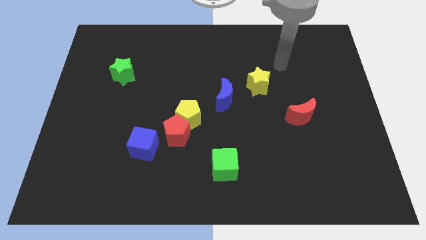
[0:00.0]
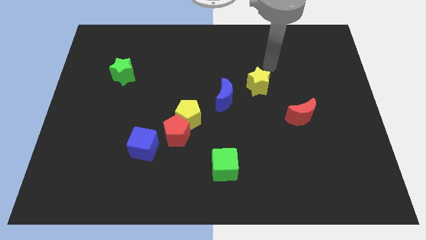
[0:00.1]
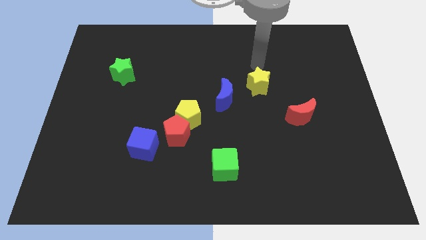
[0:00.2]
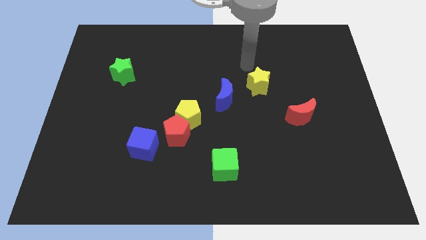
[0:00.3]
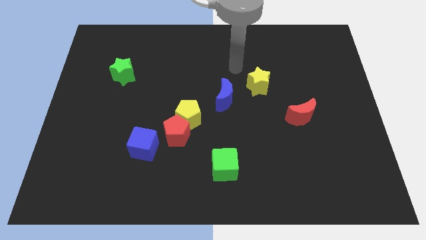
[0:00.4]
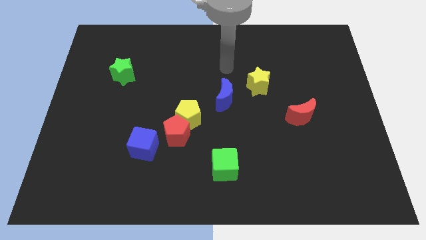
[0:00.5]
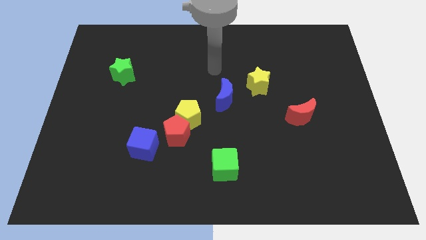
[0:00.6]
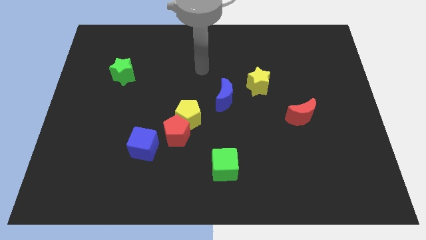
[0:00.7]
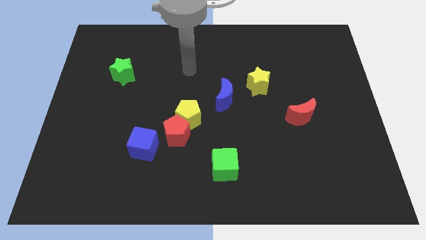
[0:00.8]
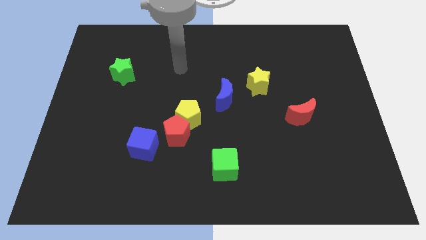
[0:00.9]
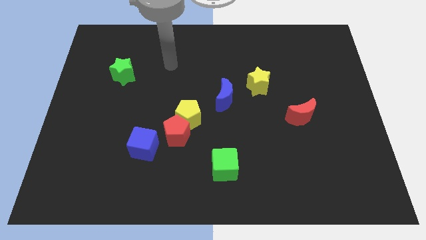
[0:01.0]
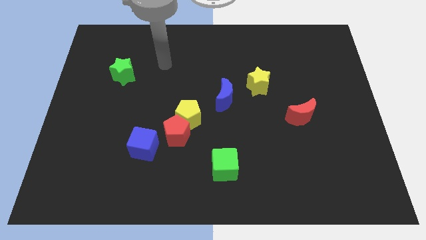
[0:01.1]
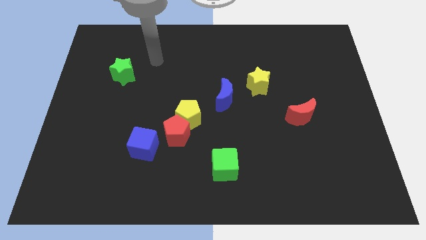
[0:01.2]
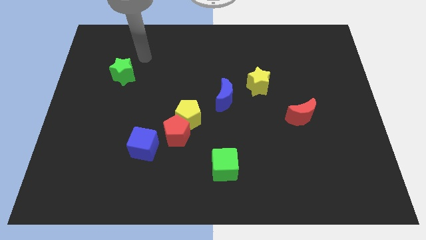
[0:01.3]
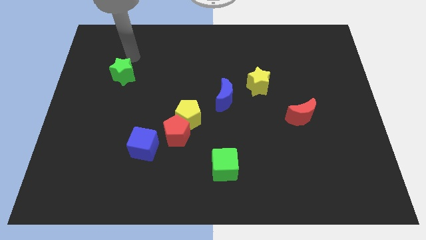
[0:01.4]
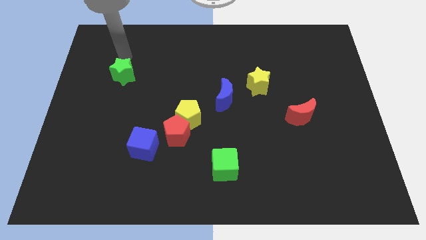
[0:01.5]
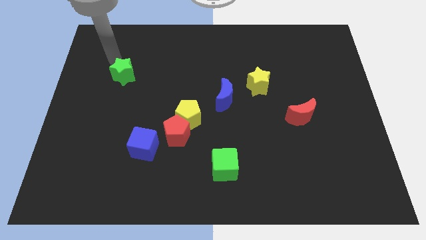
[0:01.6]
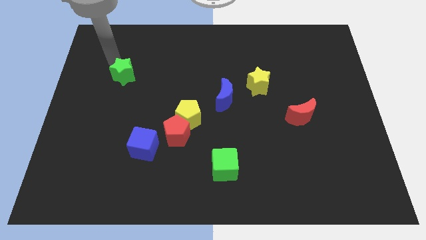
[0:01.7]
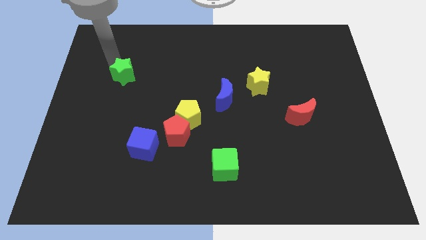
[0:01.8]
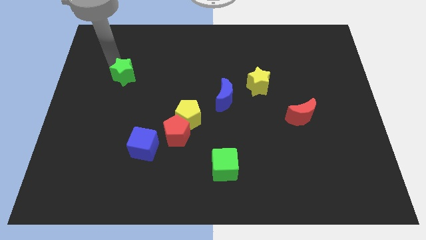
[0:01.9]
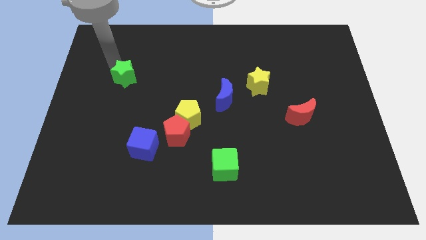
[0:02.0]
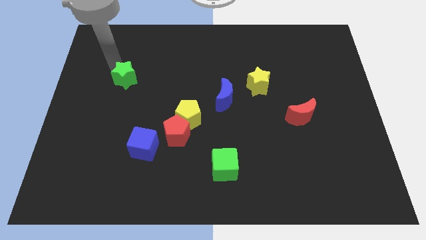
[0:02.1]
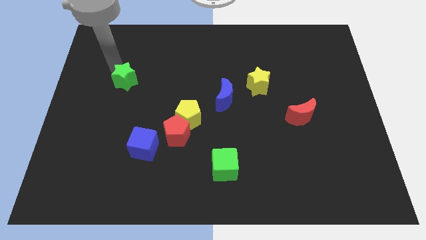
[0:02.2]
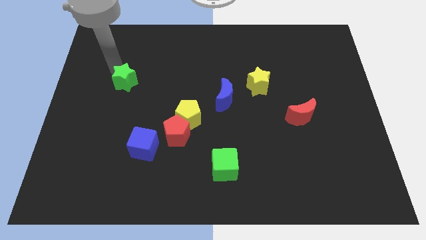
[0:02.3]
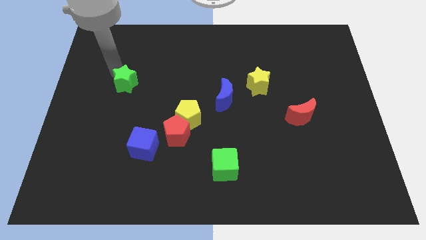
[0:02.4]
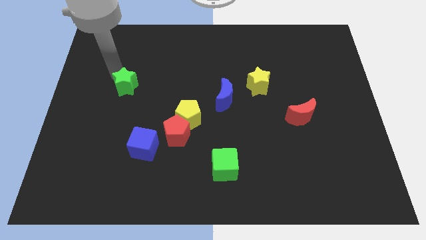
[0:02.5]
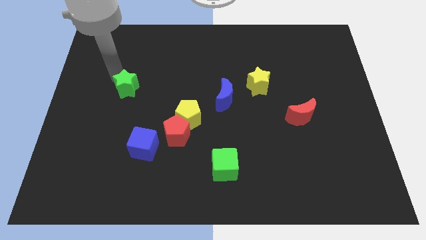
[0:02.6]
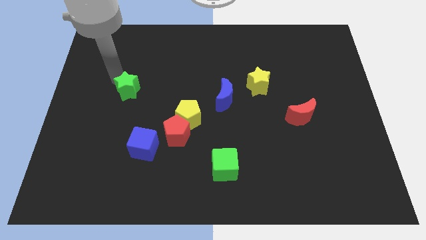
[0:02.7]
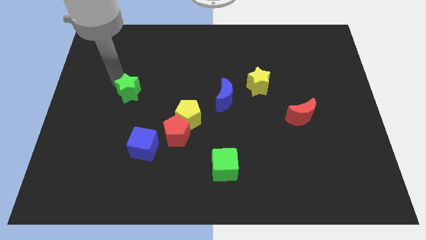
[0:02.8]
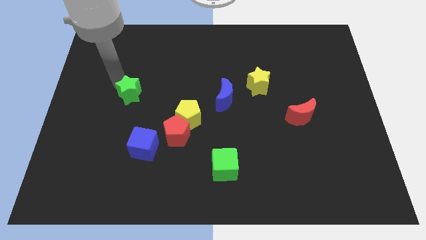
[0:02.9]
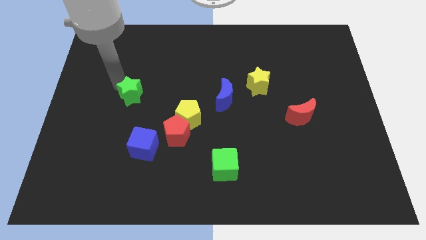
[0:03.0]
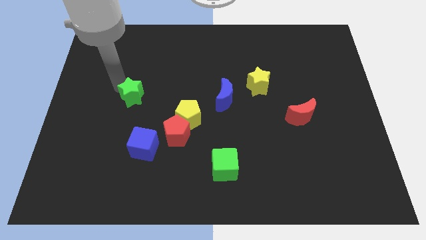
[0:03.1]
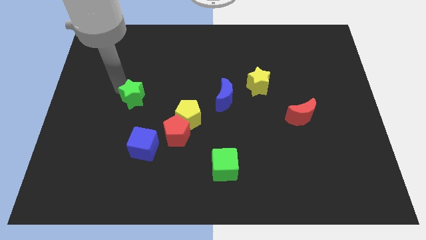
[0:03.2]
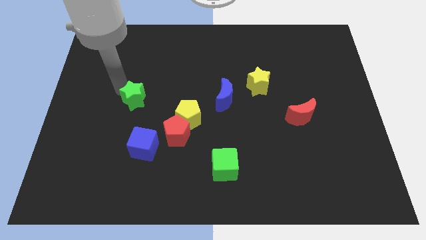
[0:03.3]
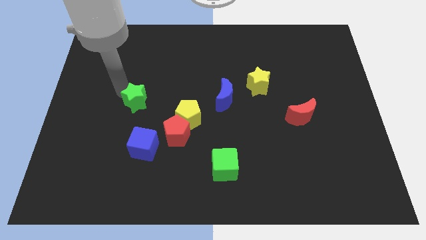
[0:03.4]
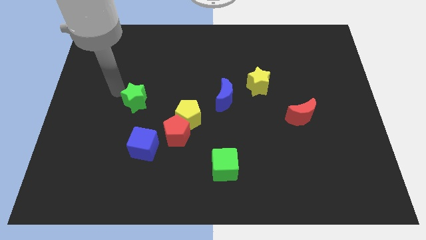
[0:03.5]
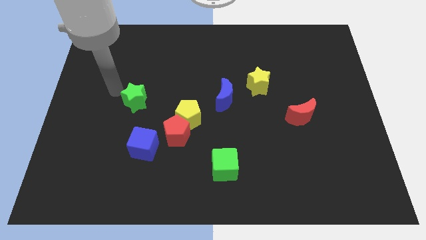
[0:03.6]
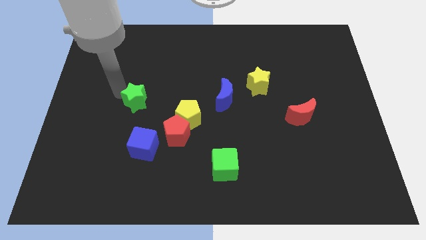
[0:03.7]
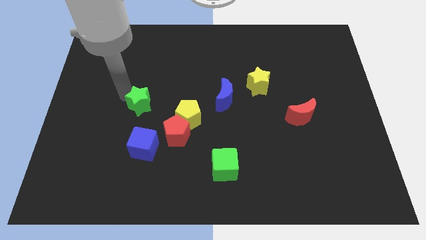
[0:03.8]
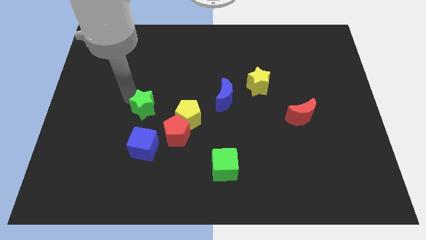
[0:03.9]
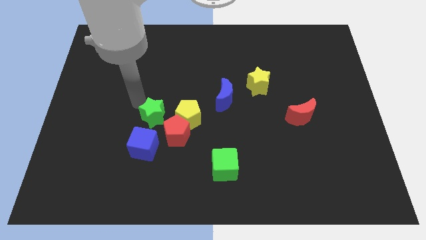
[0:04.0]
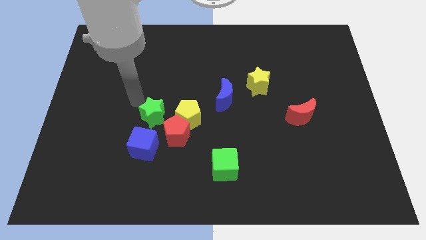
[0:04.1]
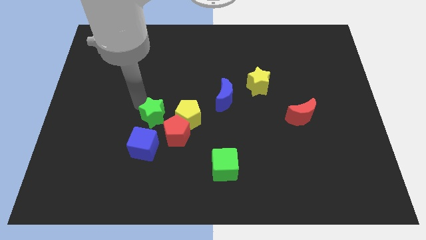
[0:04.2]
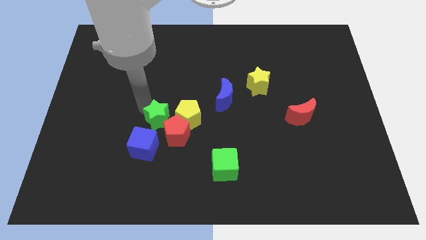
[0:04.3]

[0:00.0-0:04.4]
slide the green star to the red pentagon

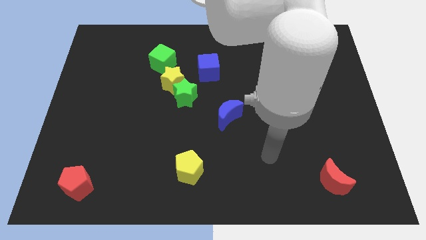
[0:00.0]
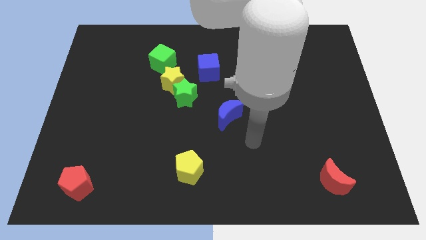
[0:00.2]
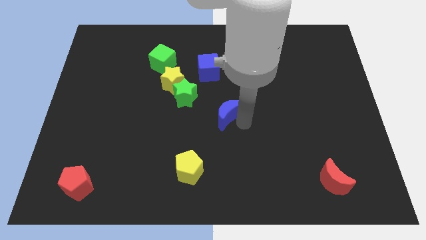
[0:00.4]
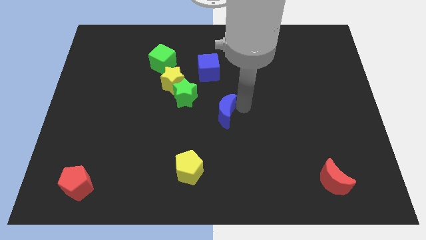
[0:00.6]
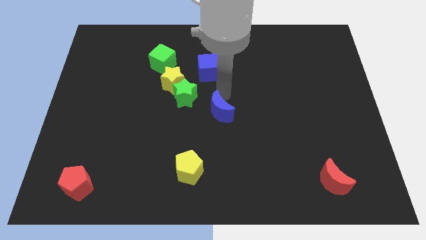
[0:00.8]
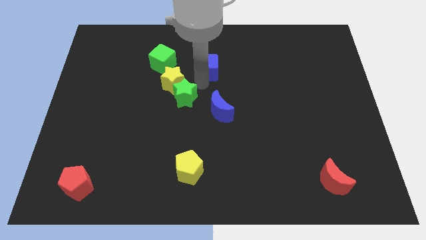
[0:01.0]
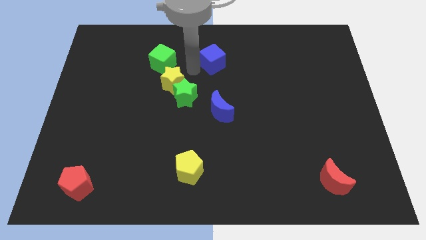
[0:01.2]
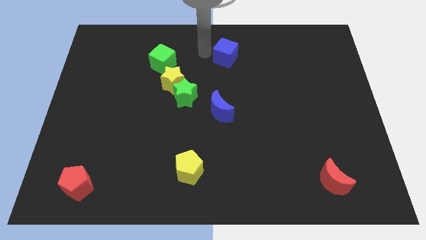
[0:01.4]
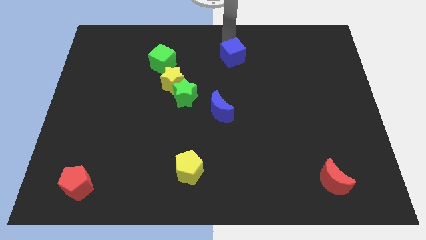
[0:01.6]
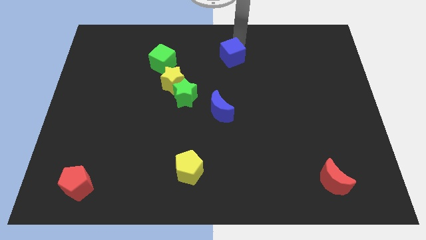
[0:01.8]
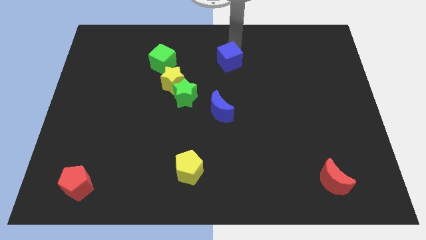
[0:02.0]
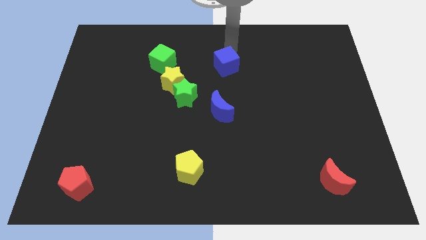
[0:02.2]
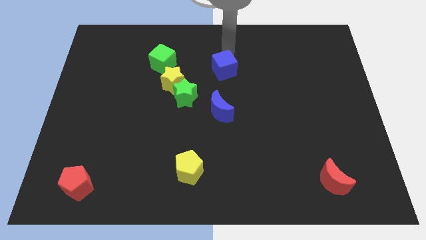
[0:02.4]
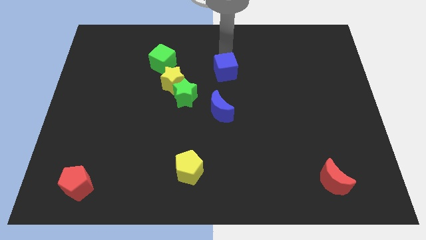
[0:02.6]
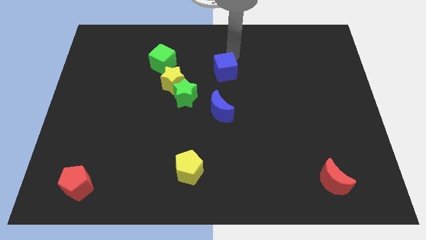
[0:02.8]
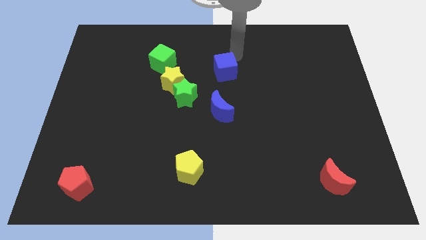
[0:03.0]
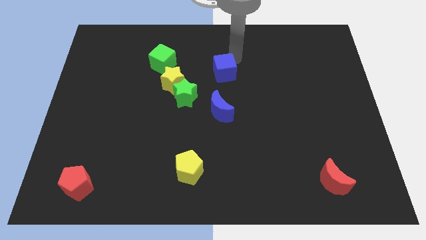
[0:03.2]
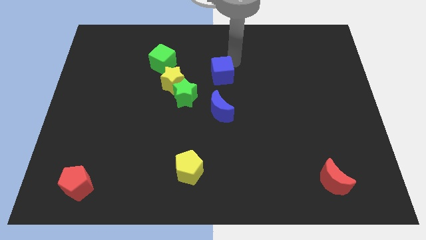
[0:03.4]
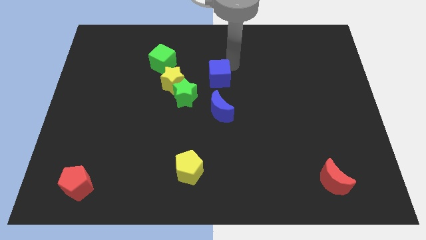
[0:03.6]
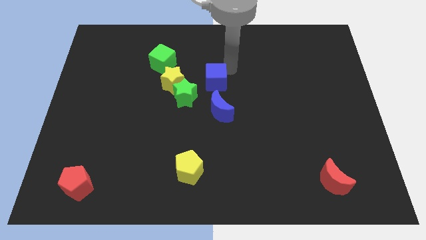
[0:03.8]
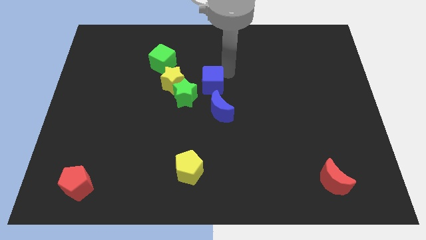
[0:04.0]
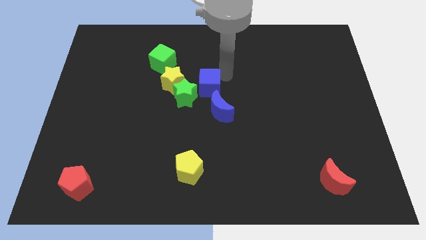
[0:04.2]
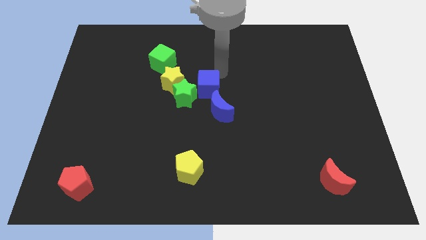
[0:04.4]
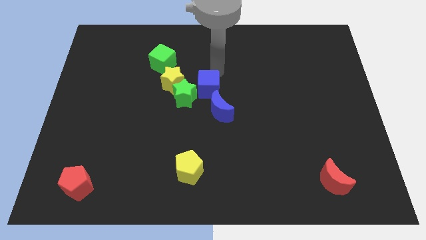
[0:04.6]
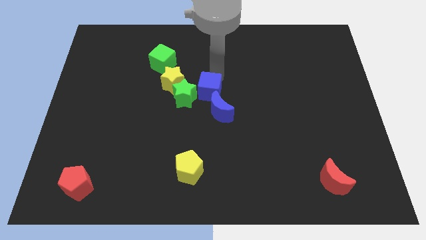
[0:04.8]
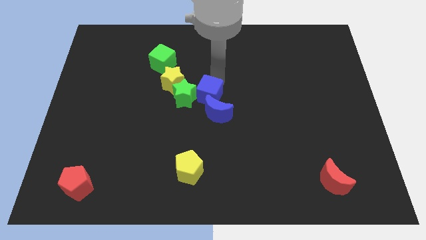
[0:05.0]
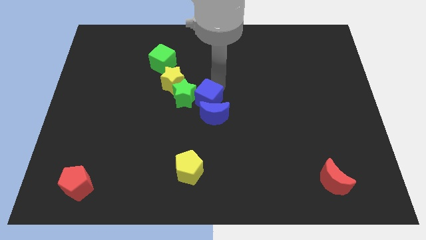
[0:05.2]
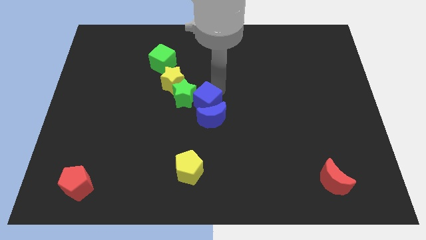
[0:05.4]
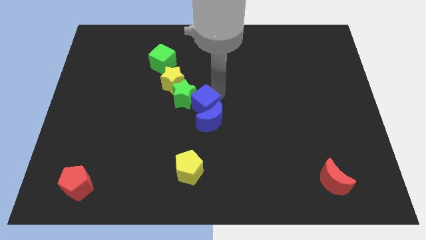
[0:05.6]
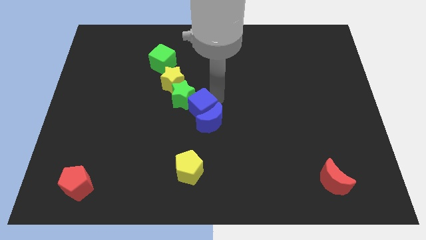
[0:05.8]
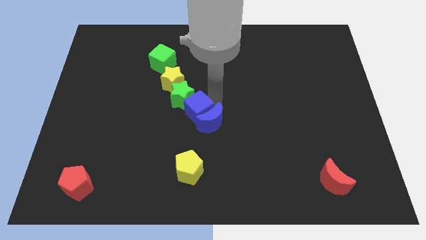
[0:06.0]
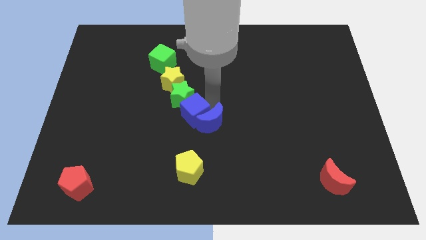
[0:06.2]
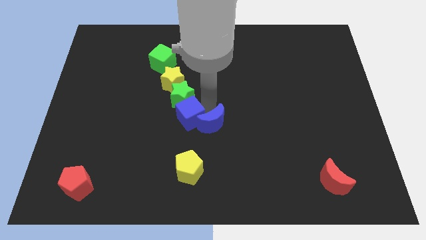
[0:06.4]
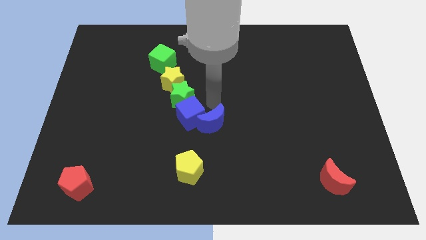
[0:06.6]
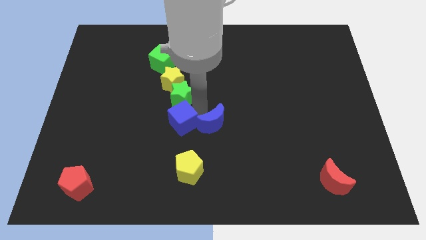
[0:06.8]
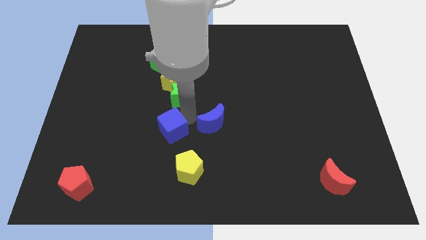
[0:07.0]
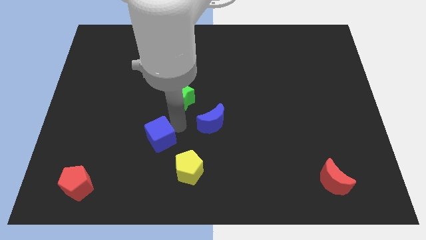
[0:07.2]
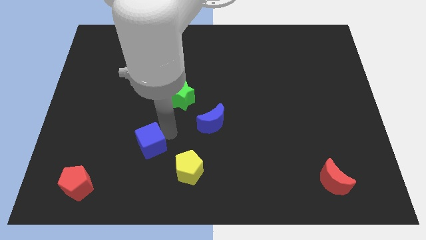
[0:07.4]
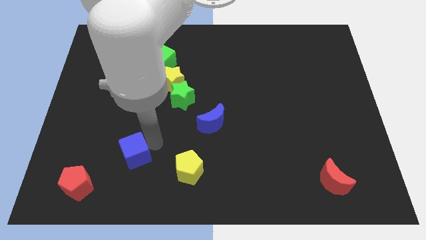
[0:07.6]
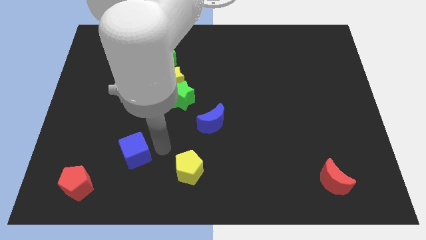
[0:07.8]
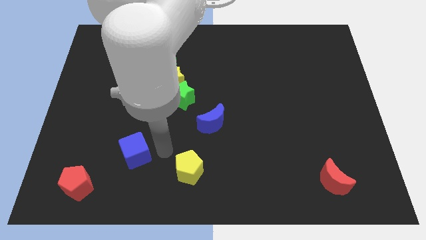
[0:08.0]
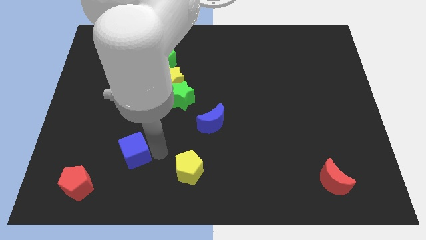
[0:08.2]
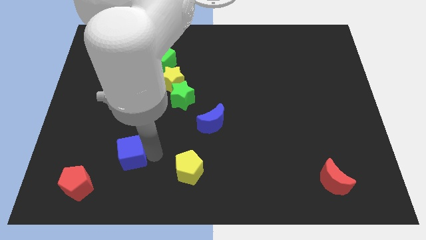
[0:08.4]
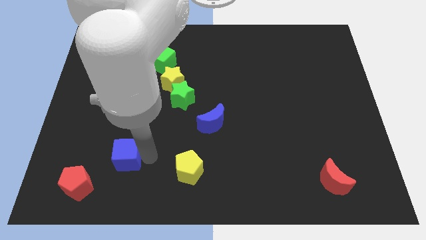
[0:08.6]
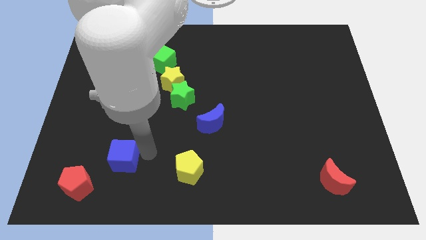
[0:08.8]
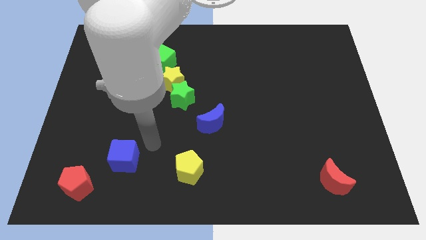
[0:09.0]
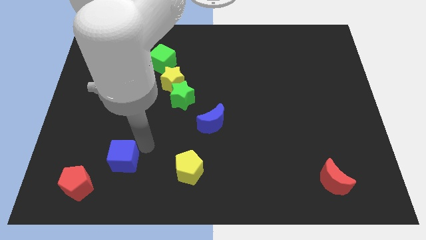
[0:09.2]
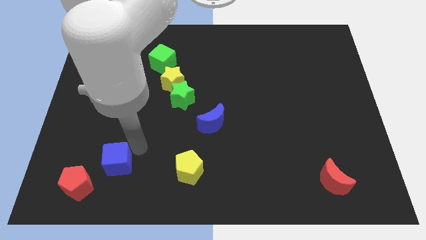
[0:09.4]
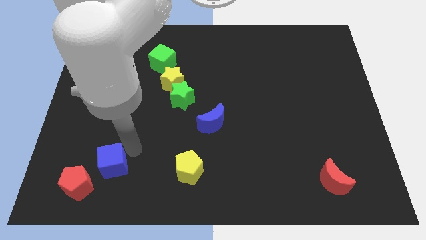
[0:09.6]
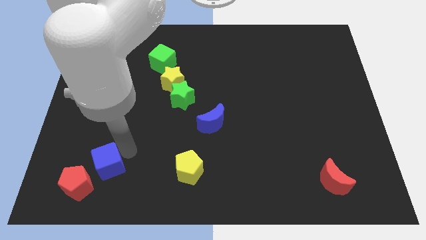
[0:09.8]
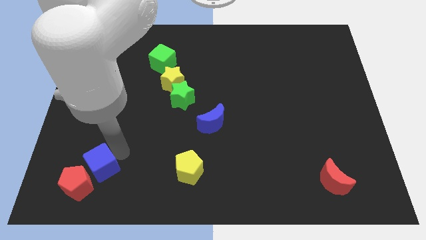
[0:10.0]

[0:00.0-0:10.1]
put the blue cube next to the red pentagon
